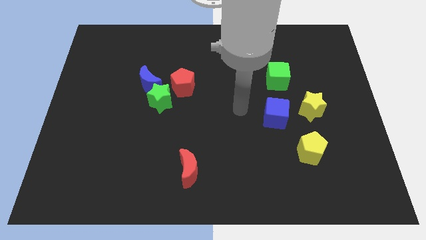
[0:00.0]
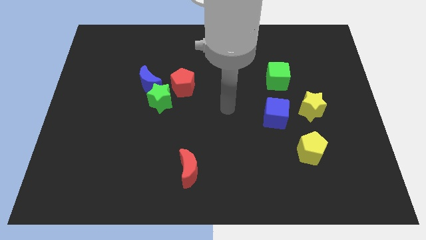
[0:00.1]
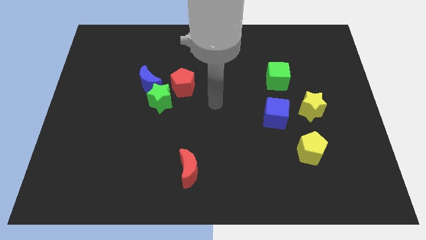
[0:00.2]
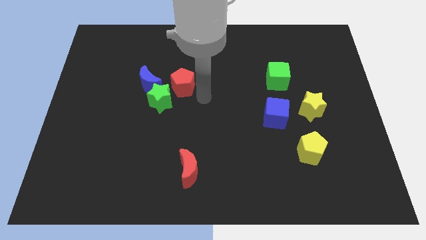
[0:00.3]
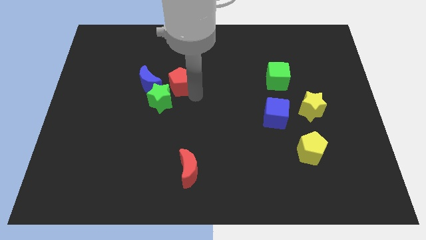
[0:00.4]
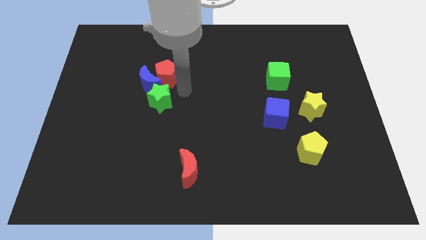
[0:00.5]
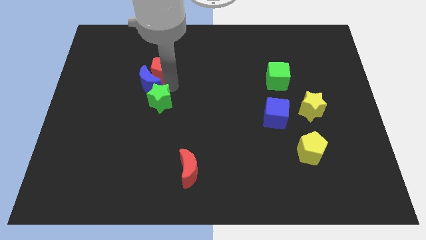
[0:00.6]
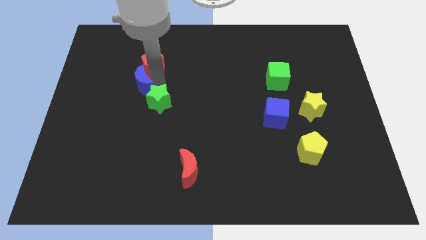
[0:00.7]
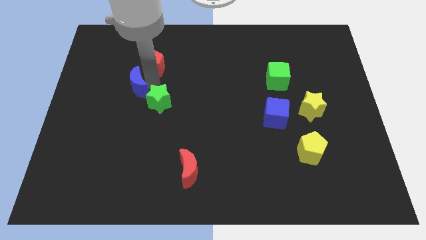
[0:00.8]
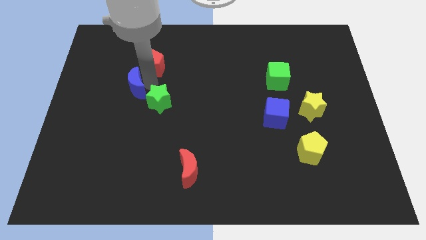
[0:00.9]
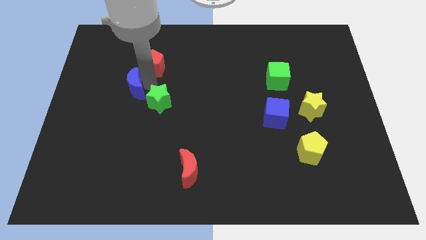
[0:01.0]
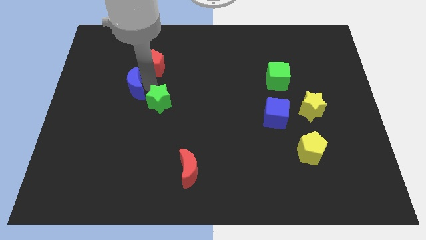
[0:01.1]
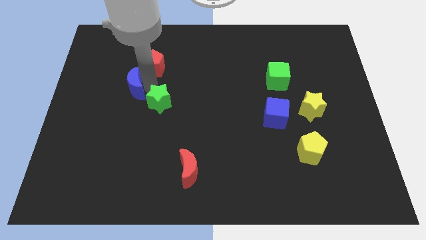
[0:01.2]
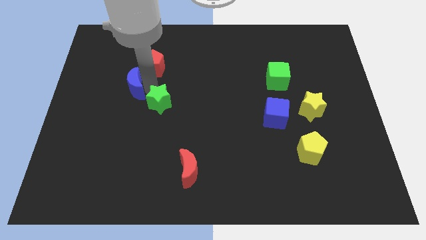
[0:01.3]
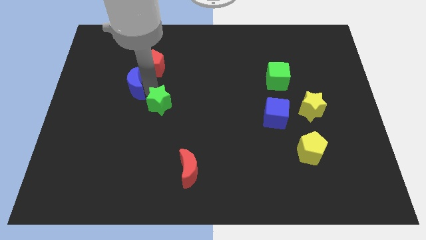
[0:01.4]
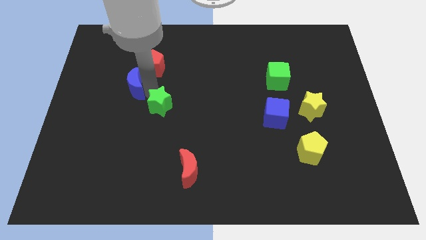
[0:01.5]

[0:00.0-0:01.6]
pull the green star apart from the blue moon and red pentagon

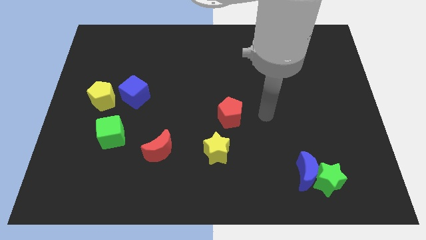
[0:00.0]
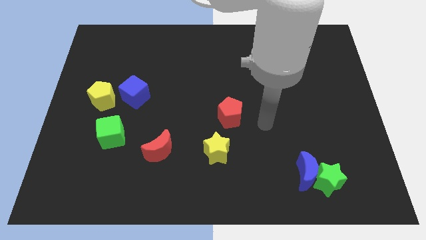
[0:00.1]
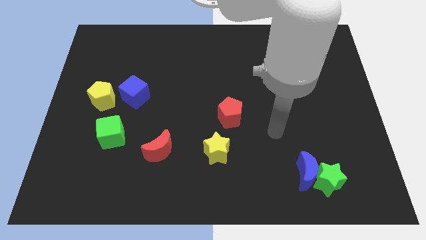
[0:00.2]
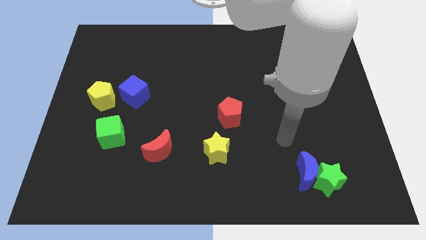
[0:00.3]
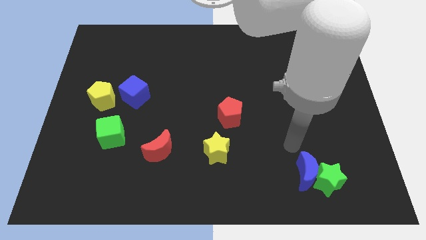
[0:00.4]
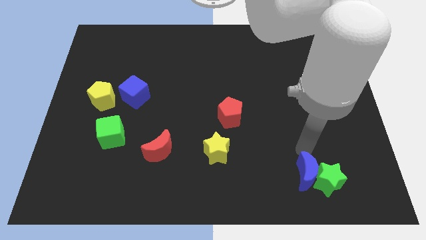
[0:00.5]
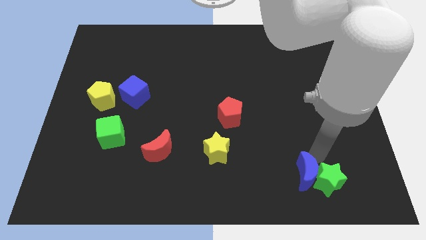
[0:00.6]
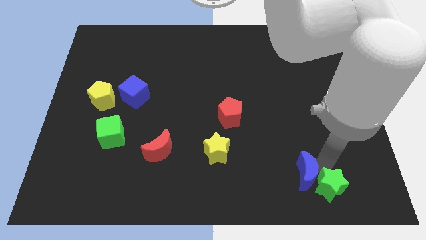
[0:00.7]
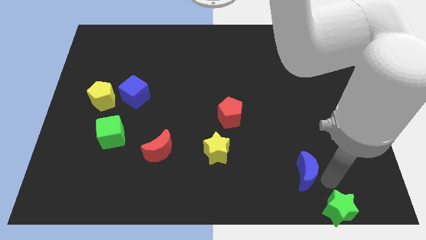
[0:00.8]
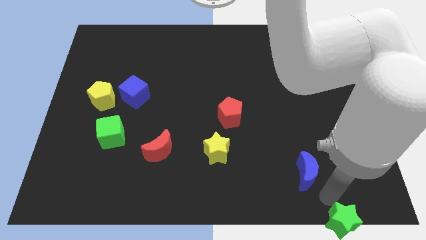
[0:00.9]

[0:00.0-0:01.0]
move the blue moon away from the green star

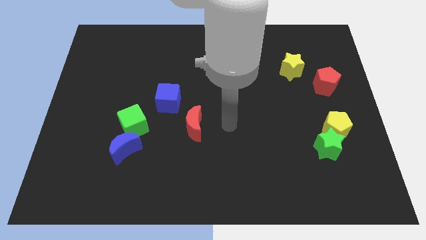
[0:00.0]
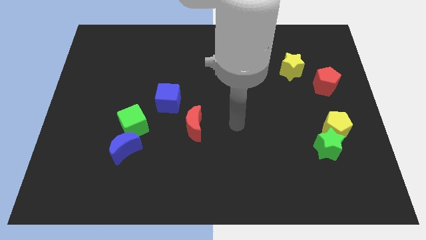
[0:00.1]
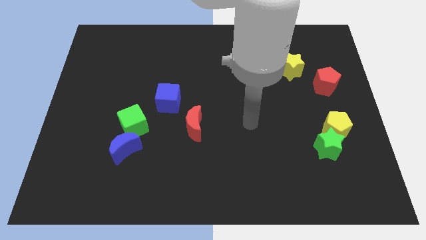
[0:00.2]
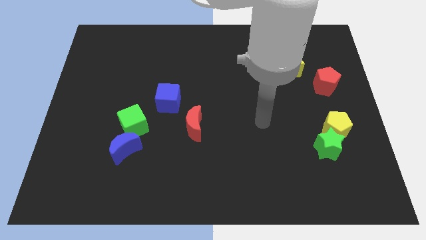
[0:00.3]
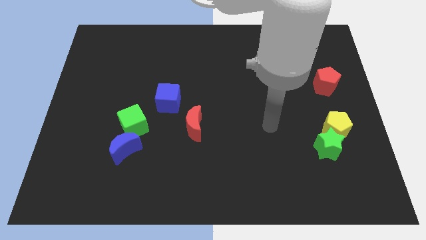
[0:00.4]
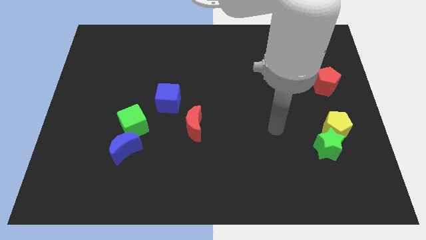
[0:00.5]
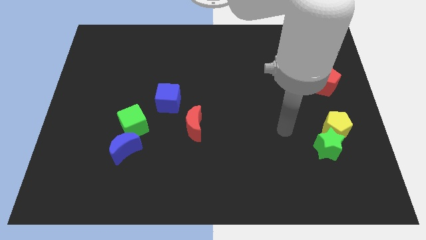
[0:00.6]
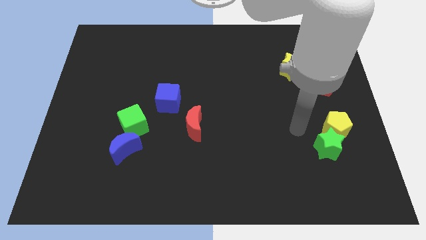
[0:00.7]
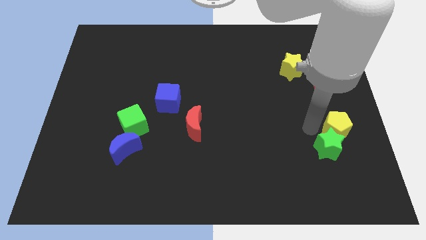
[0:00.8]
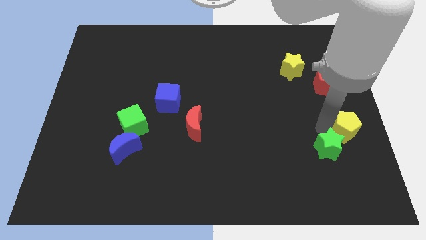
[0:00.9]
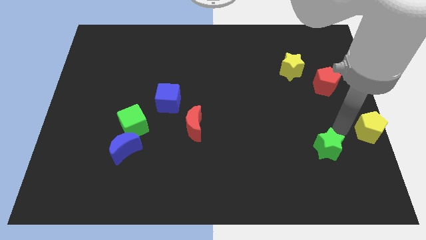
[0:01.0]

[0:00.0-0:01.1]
move the green star away from the yellow pentagon

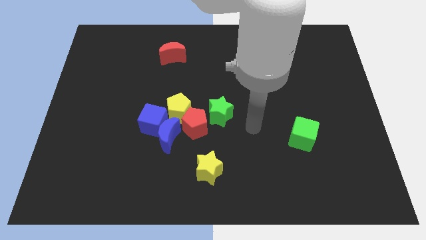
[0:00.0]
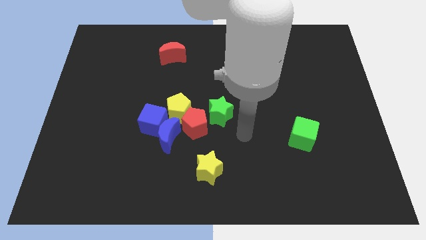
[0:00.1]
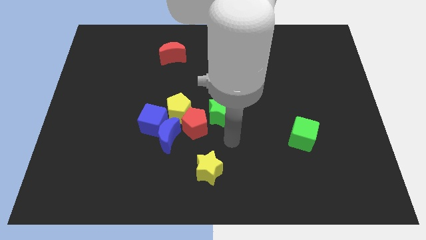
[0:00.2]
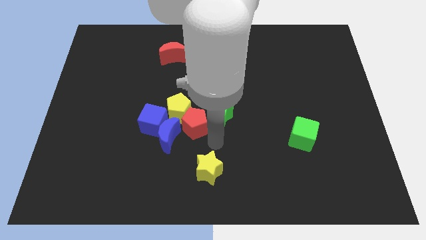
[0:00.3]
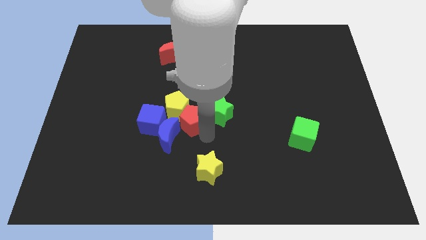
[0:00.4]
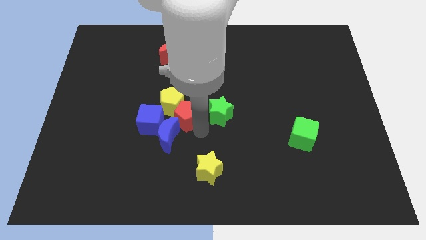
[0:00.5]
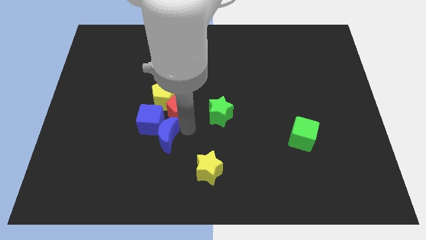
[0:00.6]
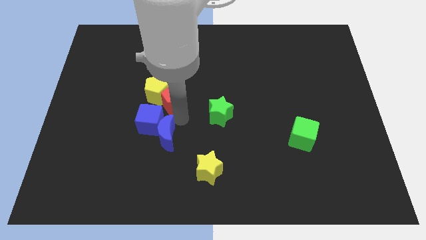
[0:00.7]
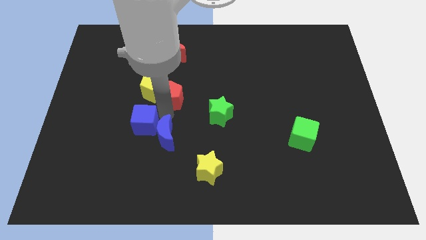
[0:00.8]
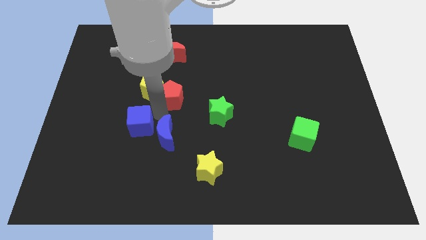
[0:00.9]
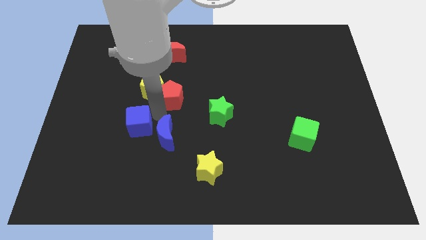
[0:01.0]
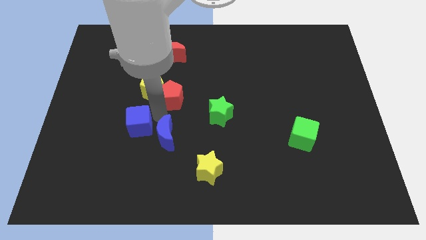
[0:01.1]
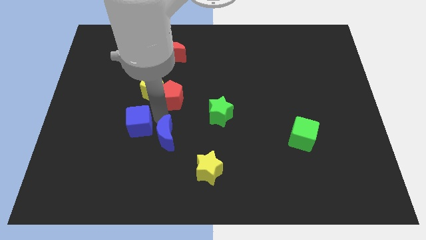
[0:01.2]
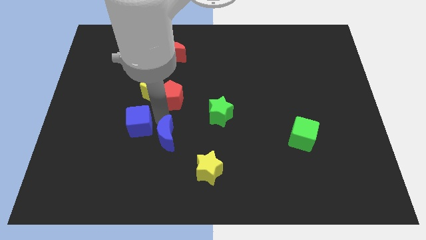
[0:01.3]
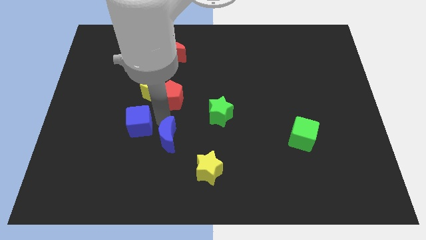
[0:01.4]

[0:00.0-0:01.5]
pull the blue moon apart from the blue cube, red pentagon, and yellow pentagon

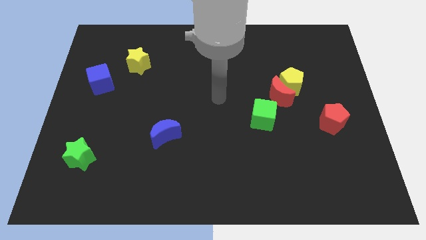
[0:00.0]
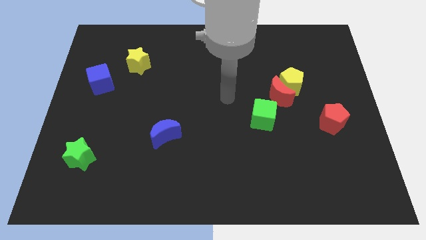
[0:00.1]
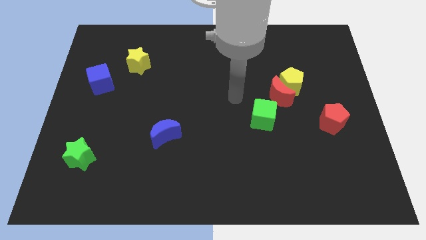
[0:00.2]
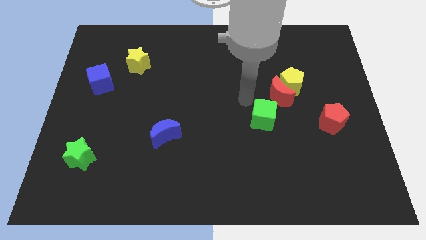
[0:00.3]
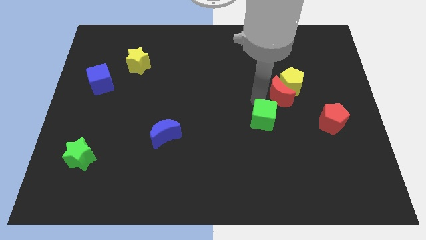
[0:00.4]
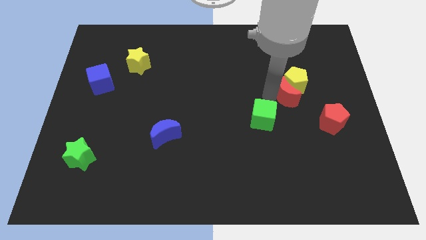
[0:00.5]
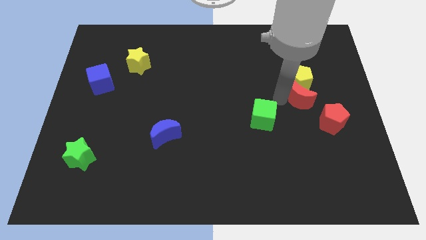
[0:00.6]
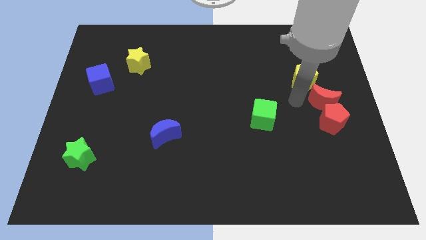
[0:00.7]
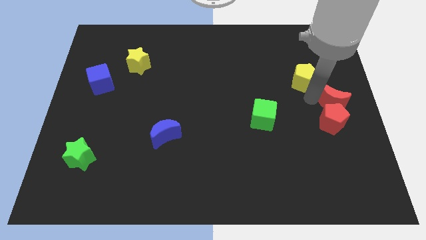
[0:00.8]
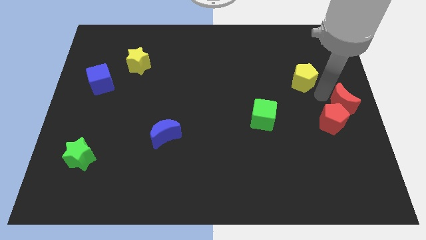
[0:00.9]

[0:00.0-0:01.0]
move the yellow pentagon away from the red moon

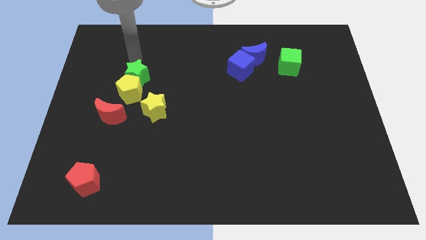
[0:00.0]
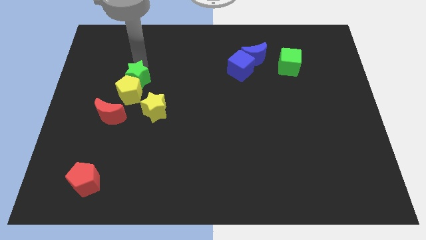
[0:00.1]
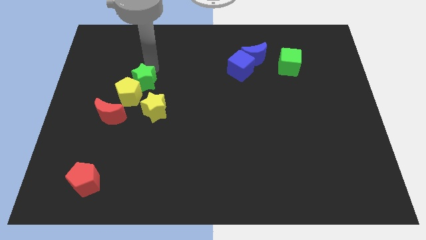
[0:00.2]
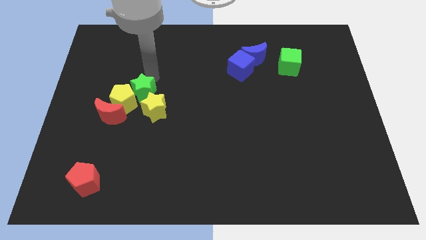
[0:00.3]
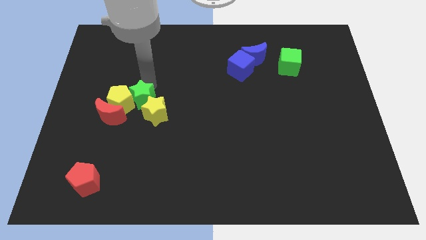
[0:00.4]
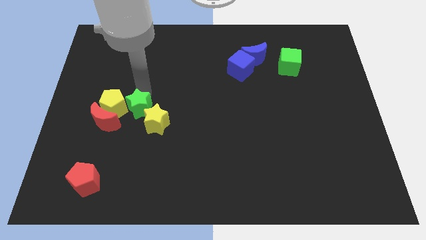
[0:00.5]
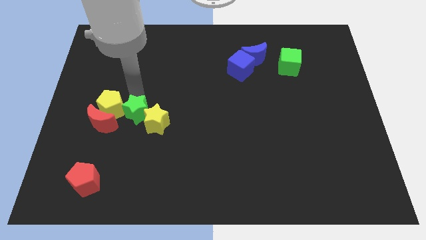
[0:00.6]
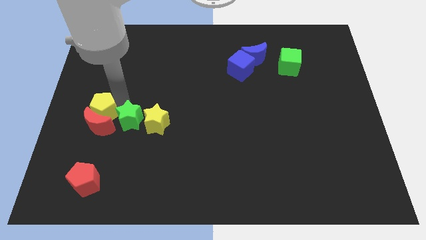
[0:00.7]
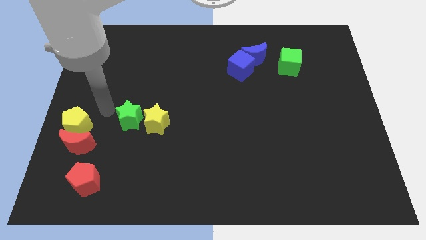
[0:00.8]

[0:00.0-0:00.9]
separate the green star from the yellow pentagon

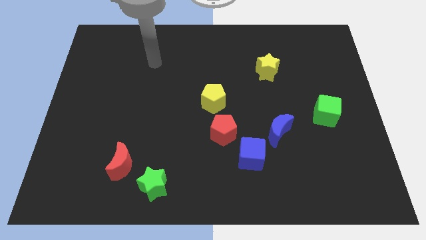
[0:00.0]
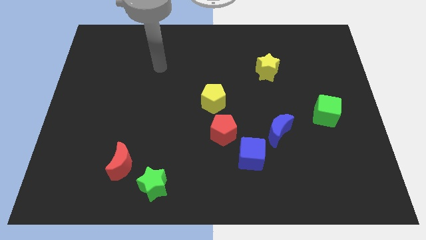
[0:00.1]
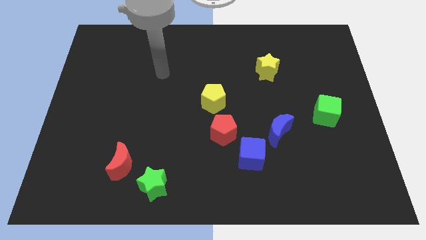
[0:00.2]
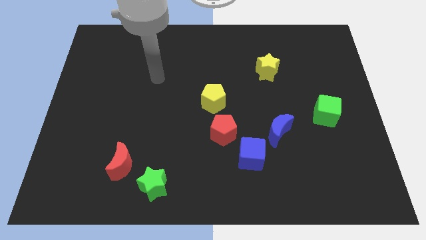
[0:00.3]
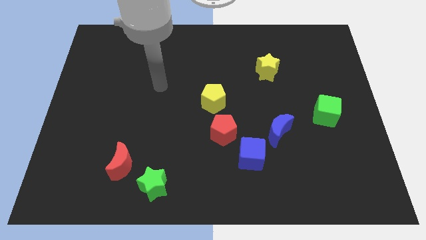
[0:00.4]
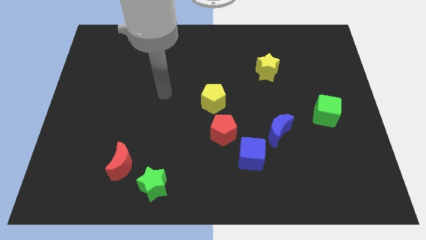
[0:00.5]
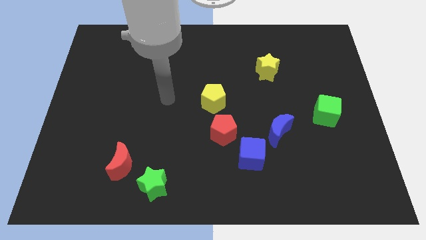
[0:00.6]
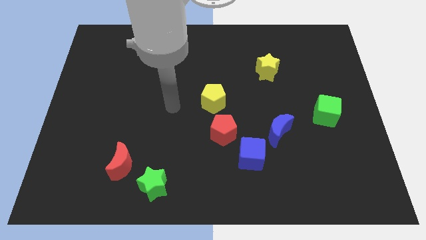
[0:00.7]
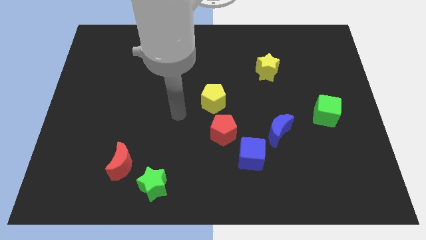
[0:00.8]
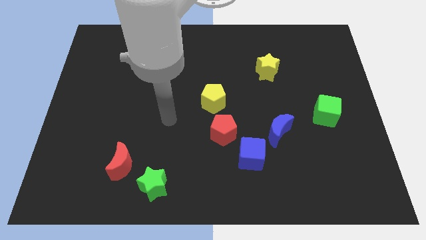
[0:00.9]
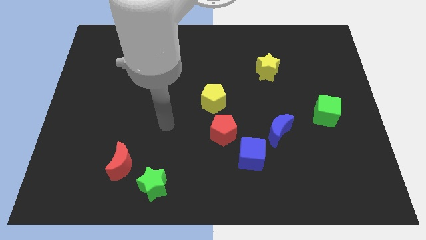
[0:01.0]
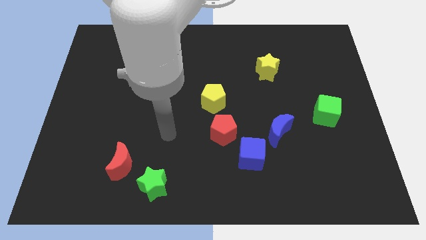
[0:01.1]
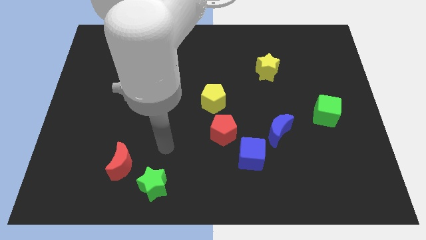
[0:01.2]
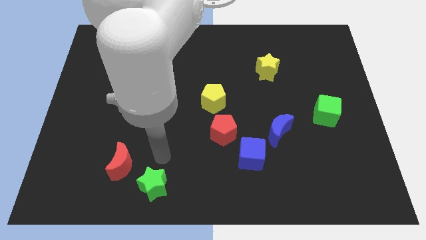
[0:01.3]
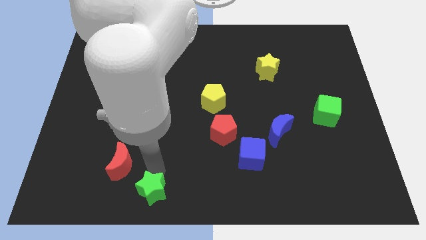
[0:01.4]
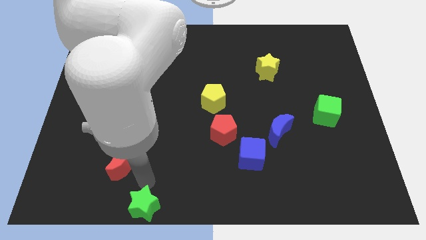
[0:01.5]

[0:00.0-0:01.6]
separate the red moon from the green star

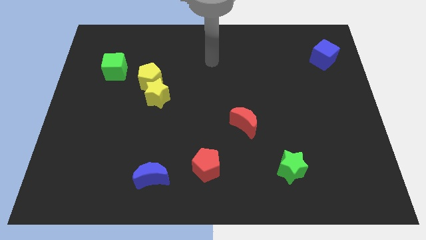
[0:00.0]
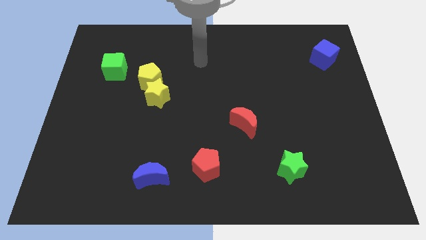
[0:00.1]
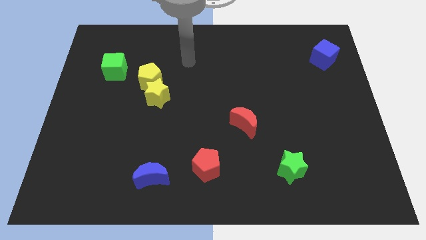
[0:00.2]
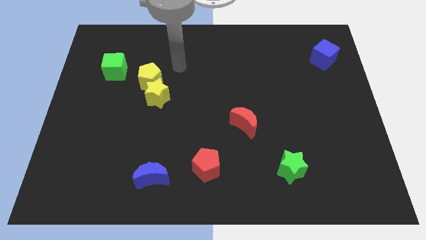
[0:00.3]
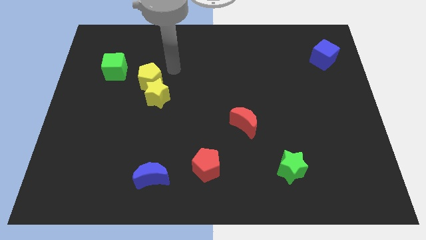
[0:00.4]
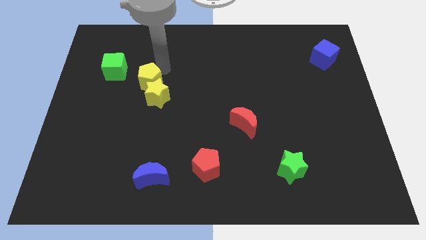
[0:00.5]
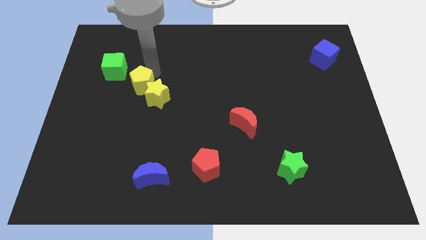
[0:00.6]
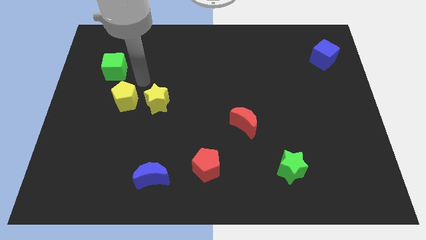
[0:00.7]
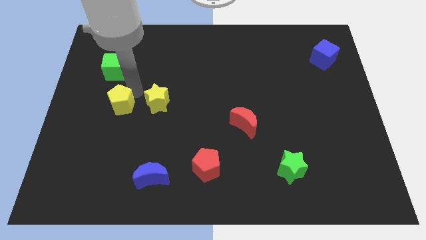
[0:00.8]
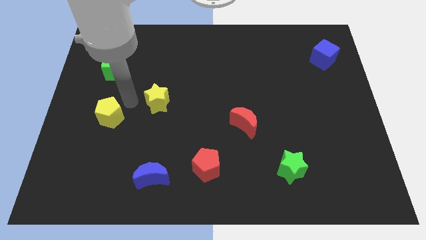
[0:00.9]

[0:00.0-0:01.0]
pull the yellow star apart from the yellow pentagon
